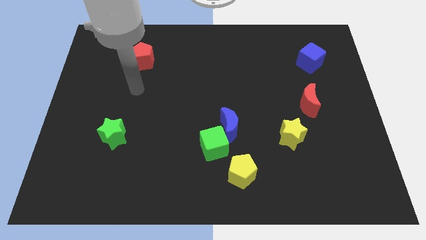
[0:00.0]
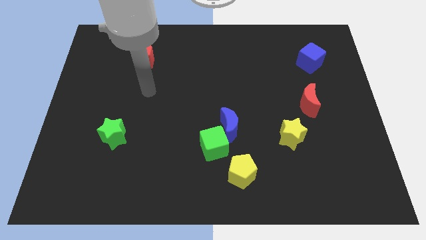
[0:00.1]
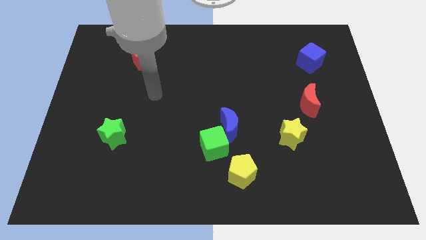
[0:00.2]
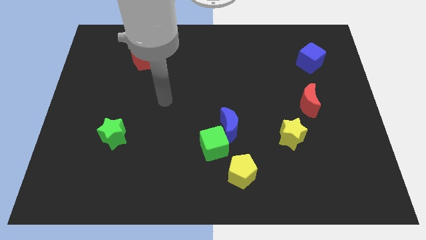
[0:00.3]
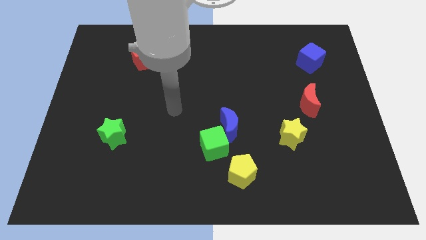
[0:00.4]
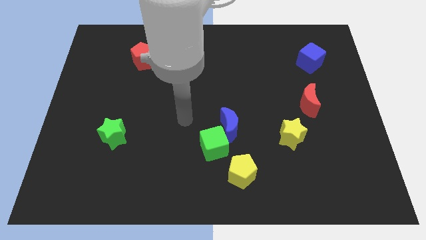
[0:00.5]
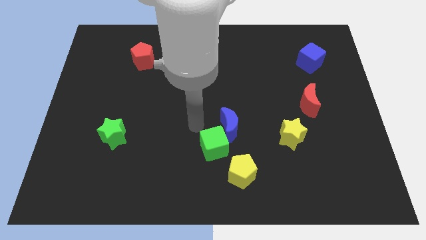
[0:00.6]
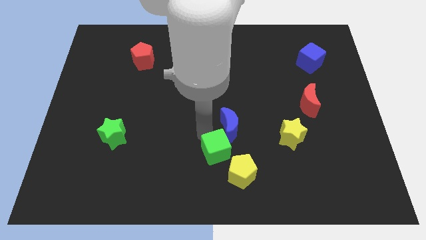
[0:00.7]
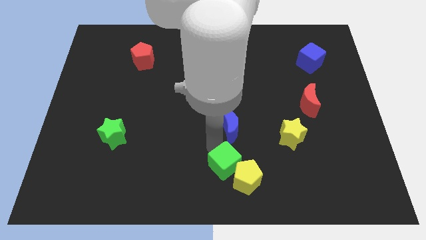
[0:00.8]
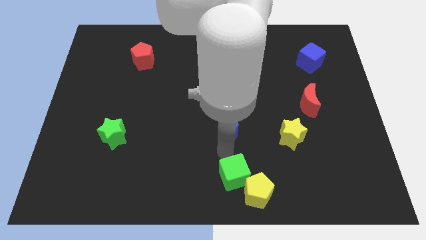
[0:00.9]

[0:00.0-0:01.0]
pull the blue moon apart from the green cube

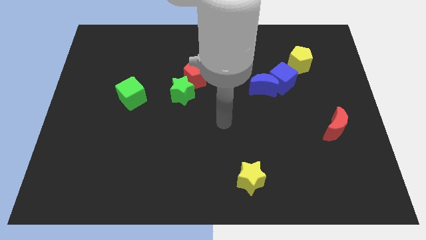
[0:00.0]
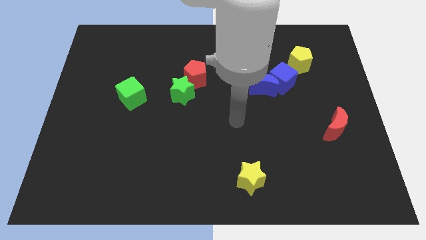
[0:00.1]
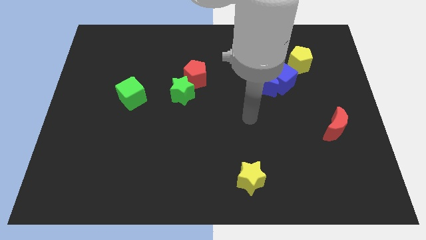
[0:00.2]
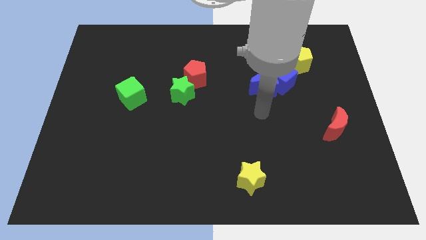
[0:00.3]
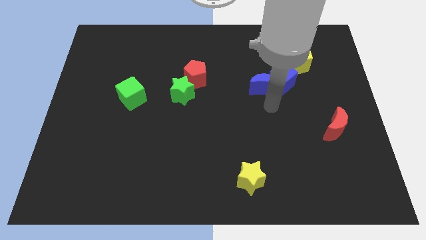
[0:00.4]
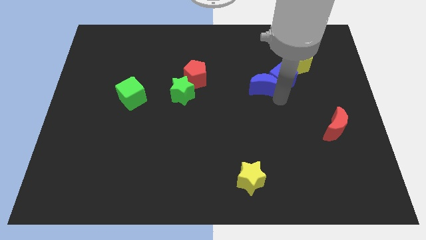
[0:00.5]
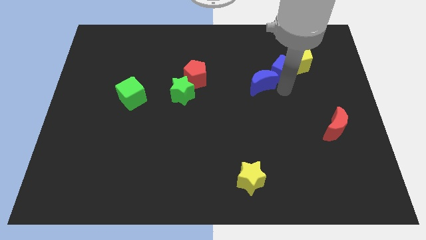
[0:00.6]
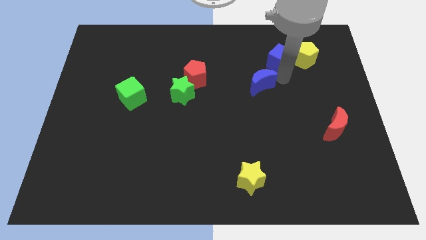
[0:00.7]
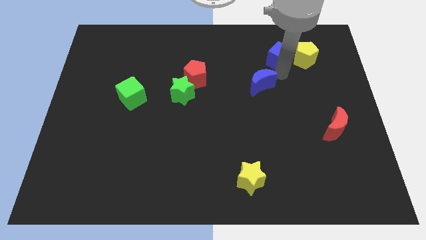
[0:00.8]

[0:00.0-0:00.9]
move the blue moon away from the blue cube

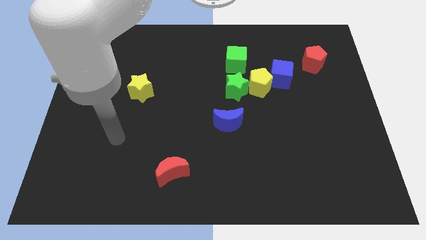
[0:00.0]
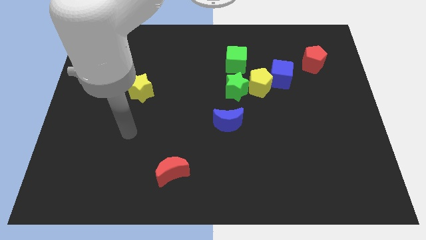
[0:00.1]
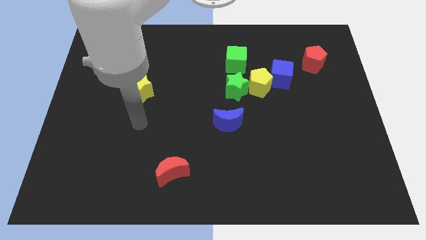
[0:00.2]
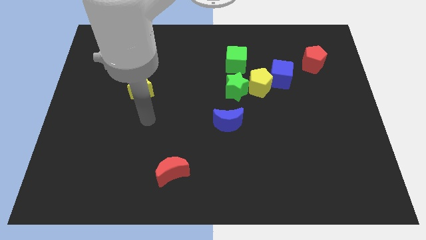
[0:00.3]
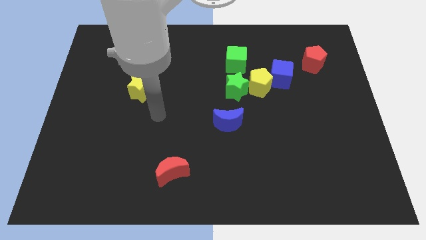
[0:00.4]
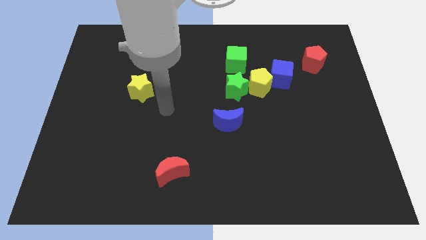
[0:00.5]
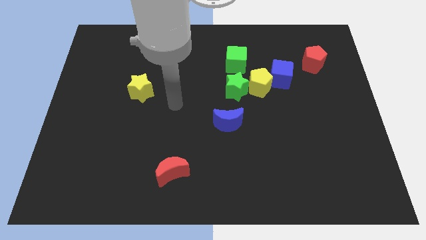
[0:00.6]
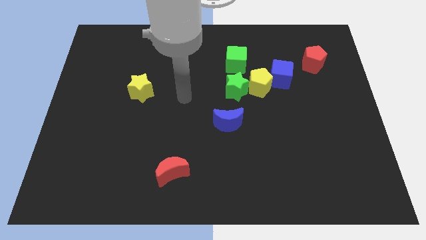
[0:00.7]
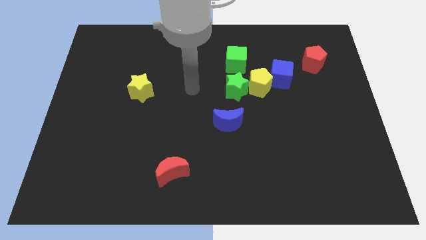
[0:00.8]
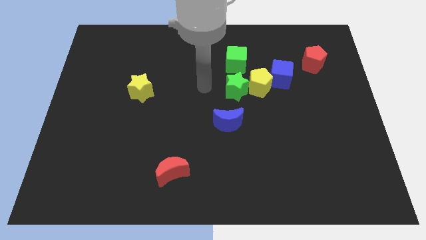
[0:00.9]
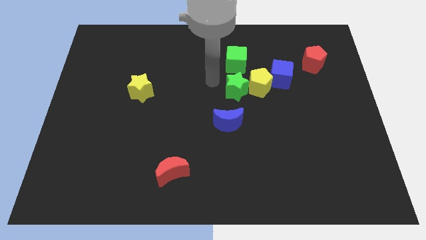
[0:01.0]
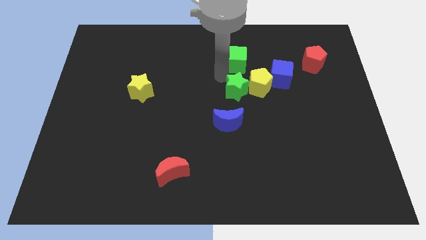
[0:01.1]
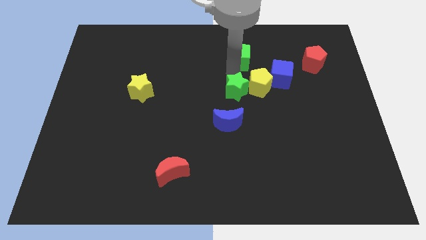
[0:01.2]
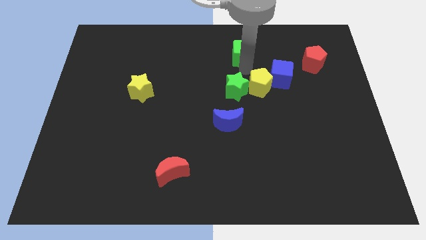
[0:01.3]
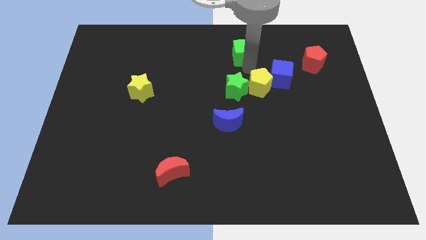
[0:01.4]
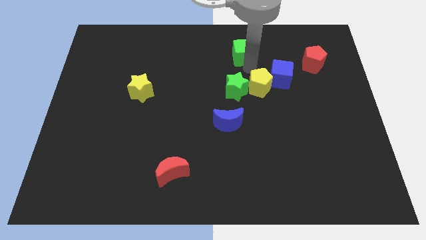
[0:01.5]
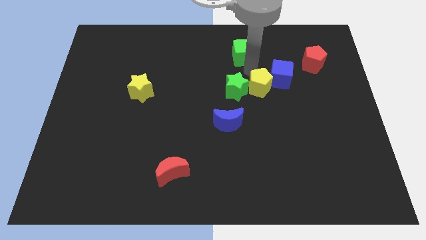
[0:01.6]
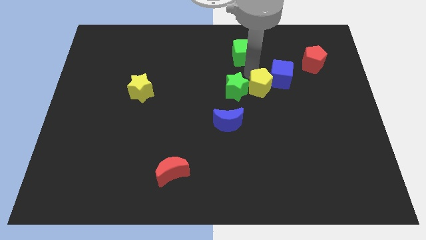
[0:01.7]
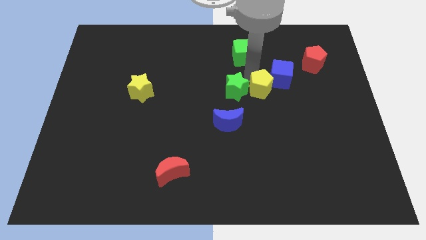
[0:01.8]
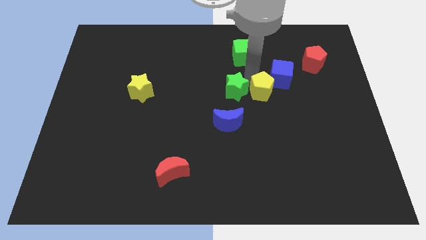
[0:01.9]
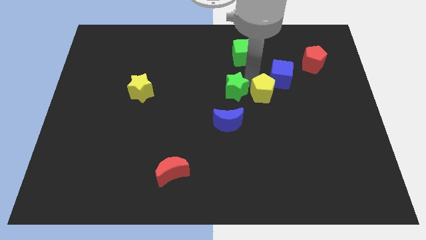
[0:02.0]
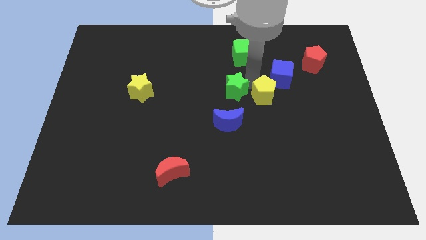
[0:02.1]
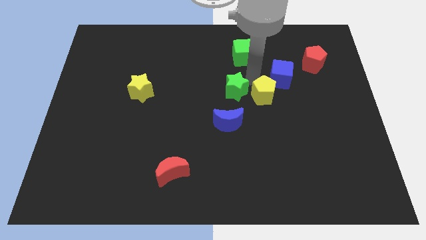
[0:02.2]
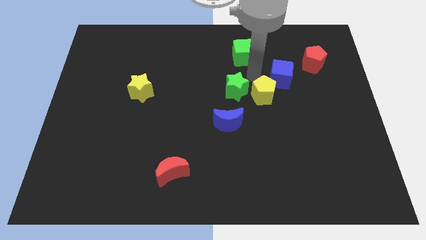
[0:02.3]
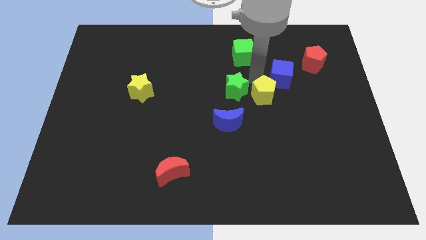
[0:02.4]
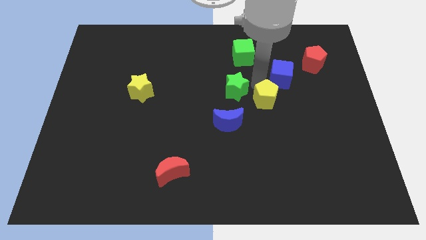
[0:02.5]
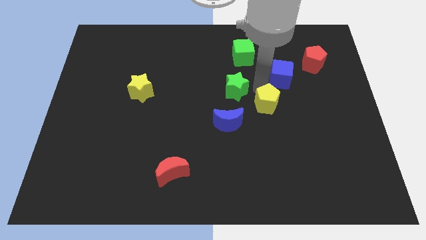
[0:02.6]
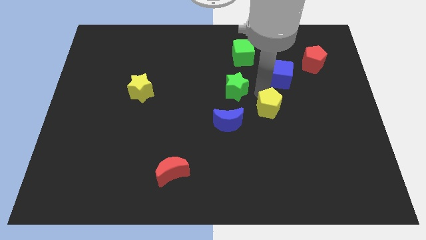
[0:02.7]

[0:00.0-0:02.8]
pull the yellow pentagon apart from the clump

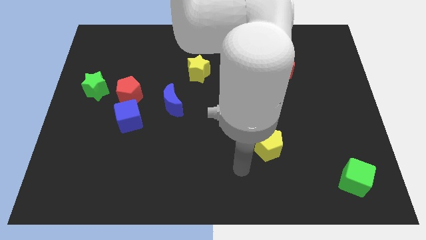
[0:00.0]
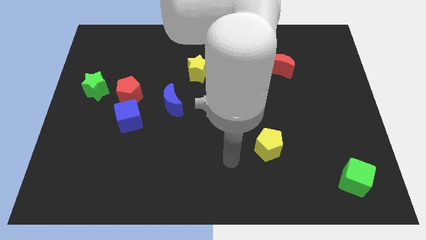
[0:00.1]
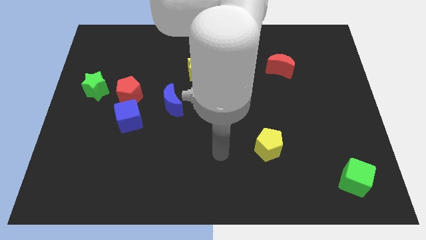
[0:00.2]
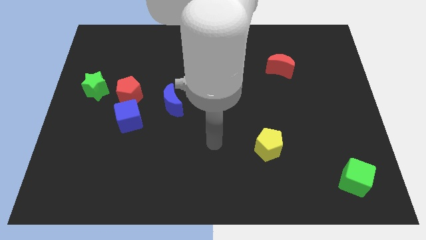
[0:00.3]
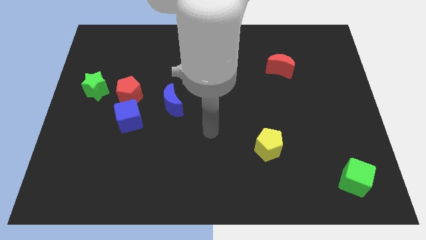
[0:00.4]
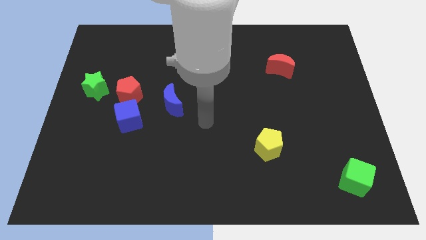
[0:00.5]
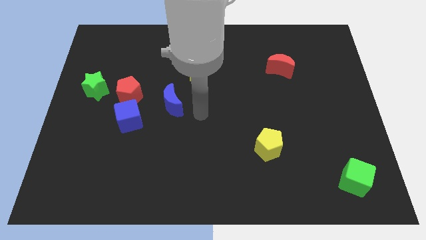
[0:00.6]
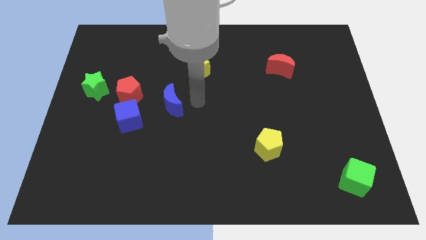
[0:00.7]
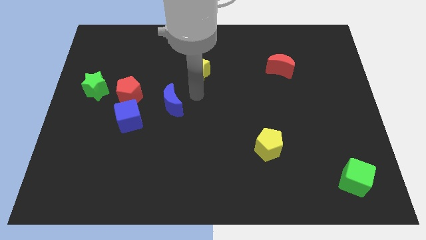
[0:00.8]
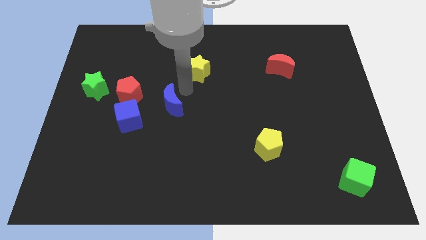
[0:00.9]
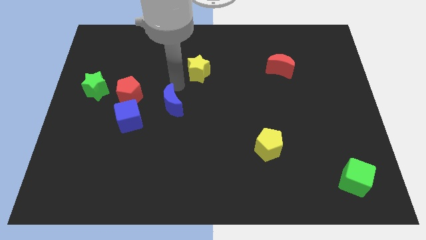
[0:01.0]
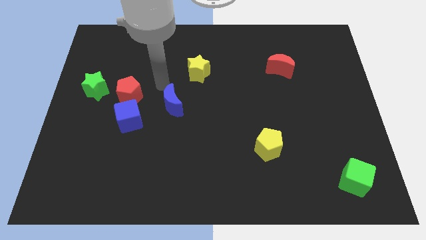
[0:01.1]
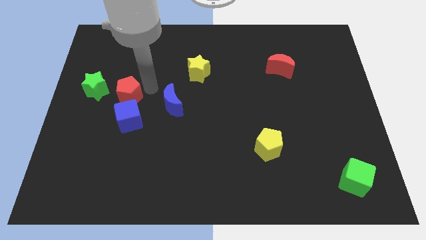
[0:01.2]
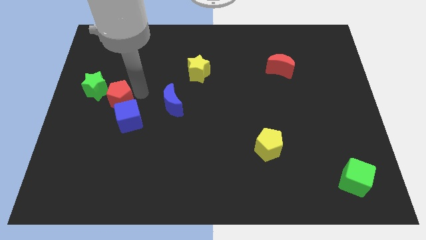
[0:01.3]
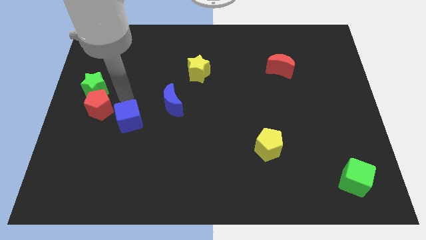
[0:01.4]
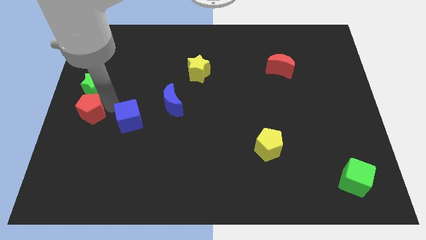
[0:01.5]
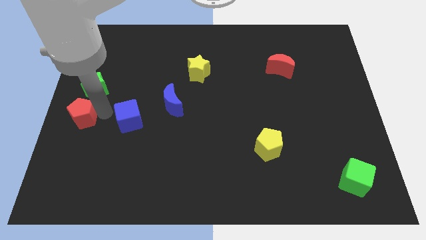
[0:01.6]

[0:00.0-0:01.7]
pull the blue cube apart from the red pentagon

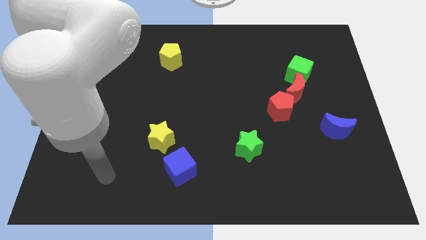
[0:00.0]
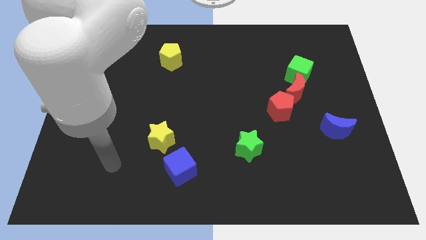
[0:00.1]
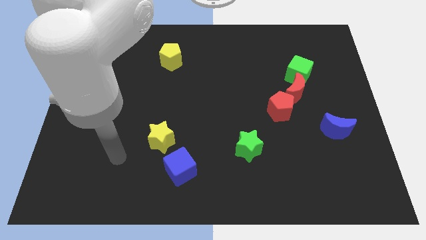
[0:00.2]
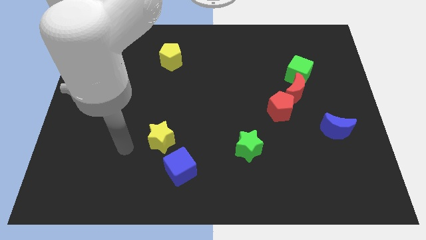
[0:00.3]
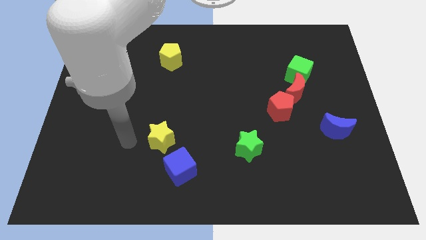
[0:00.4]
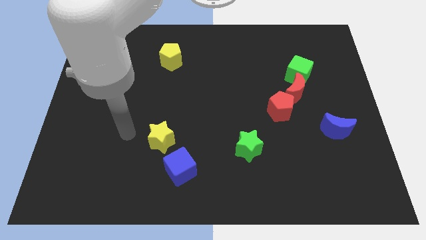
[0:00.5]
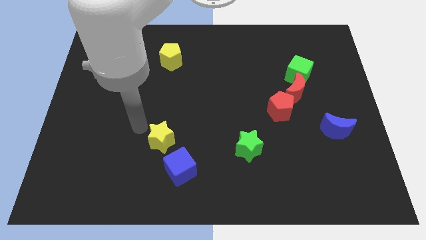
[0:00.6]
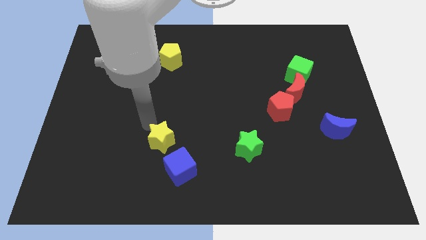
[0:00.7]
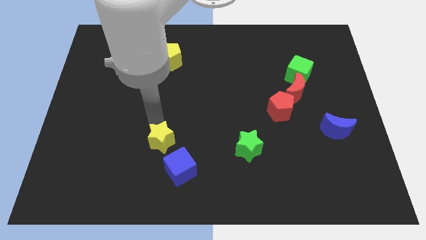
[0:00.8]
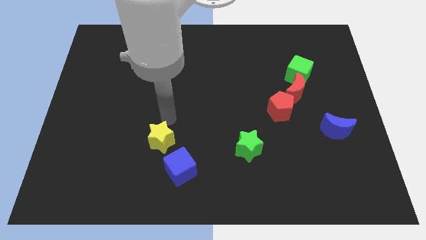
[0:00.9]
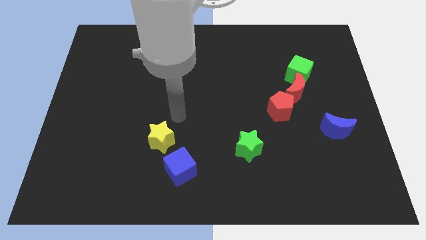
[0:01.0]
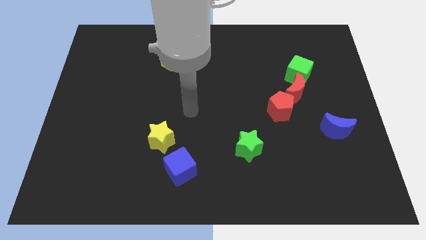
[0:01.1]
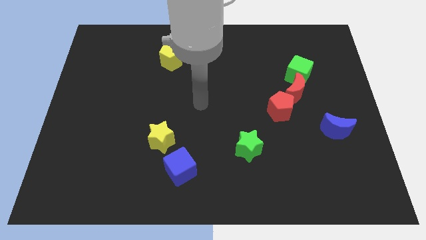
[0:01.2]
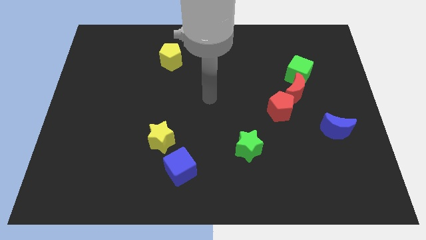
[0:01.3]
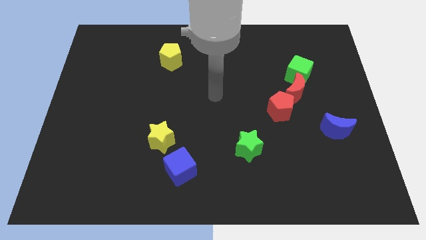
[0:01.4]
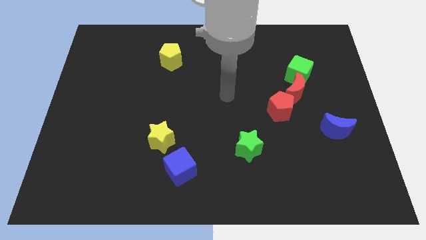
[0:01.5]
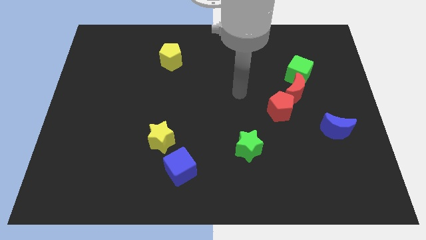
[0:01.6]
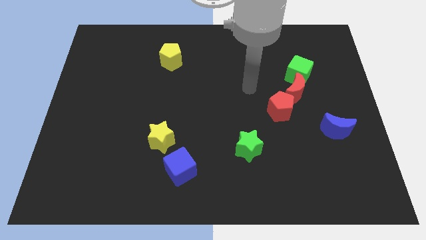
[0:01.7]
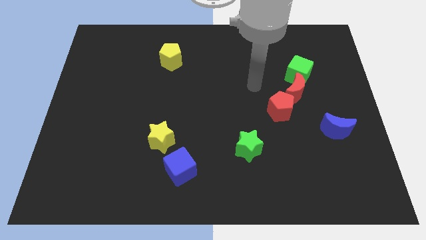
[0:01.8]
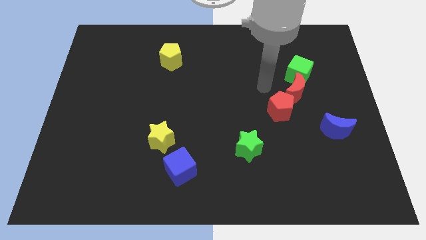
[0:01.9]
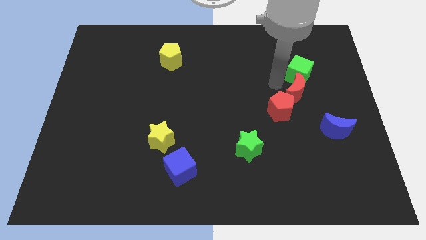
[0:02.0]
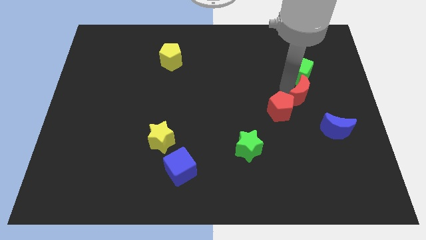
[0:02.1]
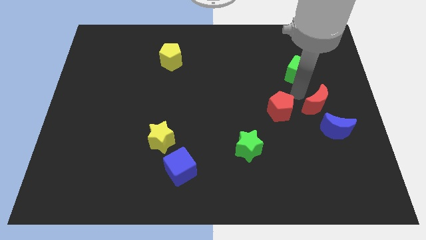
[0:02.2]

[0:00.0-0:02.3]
separate the green cube from the red moon

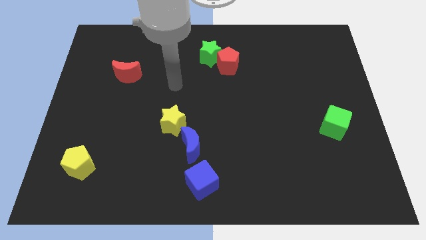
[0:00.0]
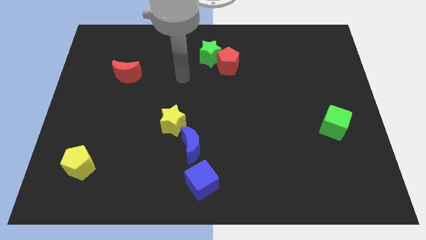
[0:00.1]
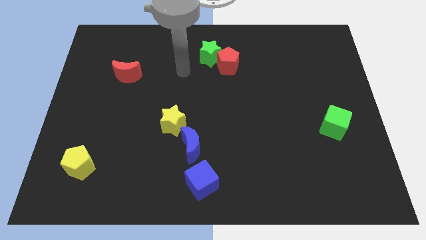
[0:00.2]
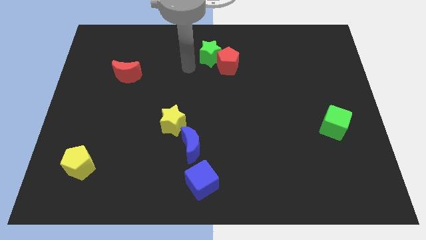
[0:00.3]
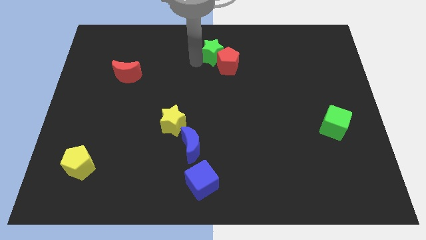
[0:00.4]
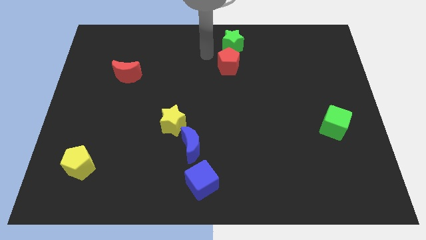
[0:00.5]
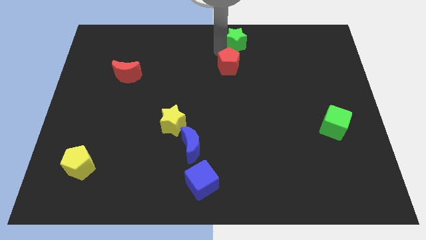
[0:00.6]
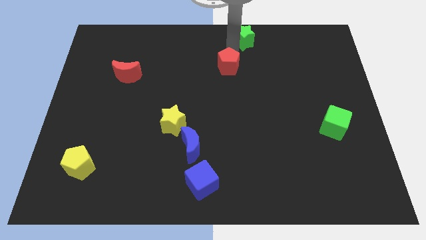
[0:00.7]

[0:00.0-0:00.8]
pull the red pentagon apart from the green star

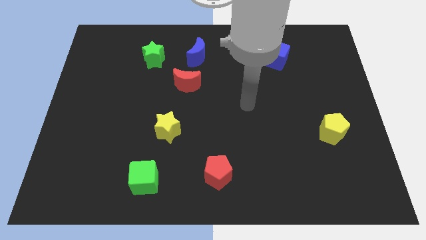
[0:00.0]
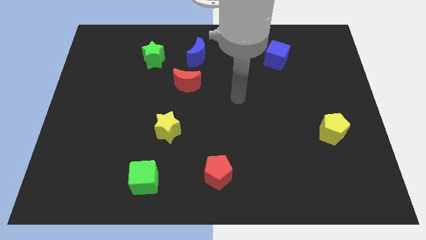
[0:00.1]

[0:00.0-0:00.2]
separate the red moon from the blue moon
